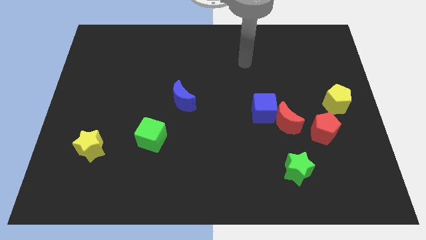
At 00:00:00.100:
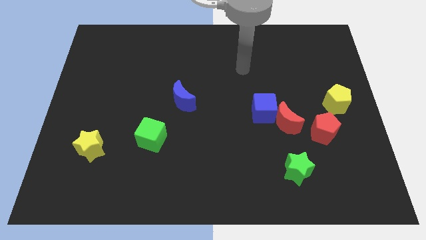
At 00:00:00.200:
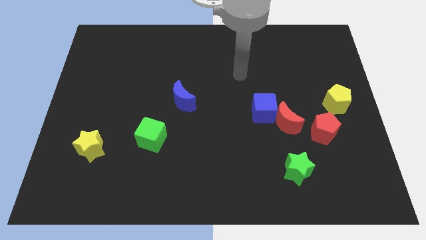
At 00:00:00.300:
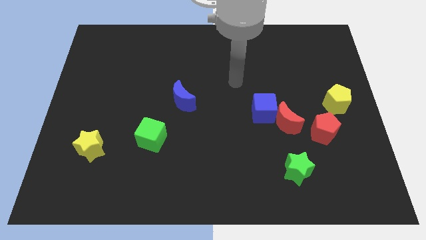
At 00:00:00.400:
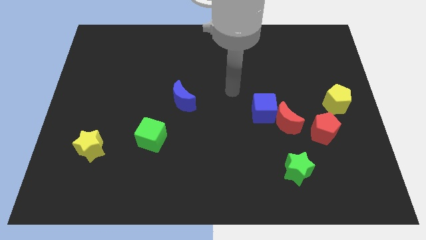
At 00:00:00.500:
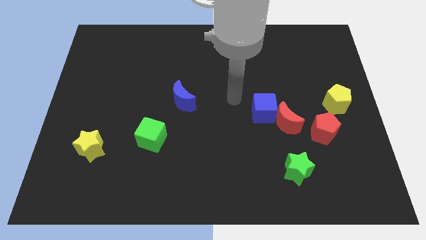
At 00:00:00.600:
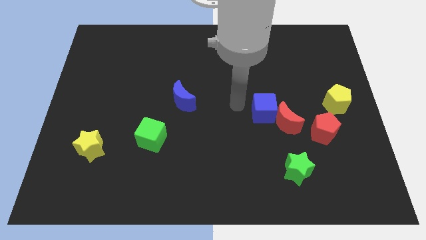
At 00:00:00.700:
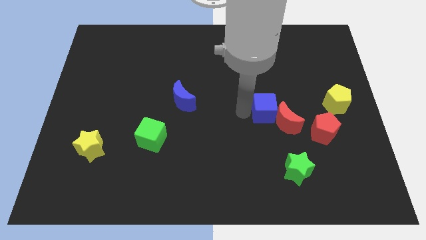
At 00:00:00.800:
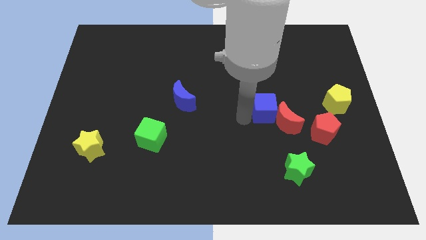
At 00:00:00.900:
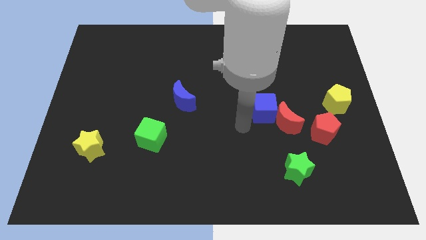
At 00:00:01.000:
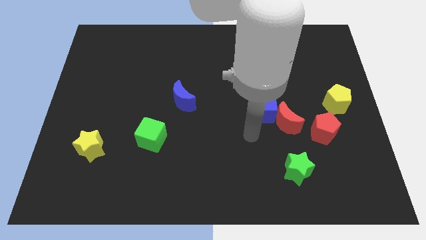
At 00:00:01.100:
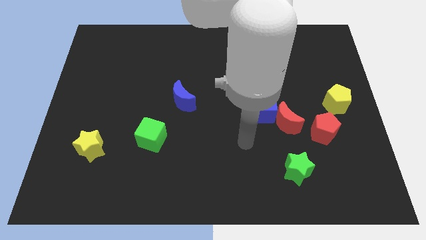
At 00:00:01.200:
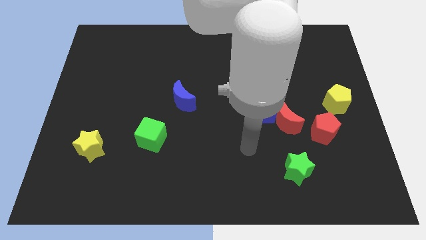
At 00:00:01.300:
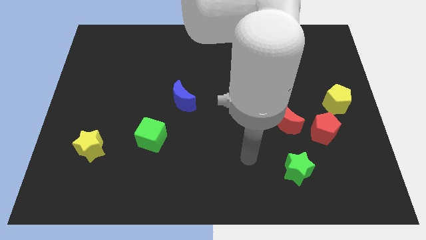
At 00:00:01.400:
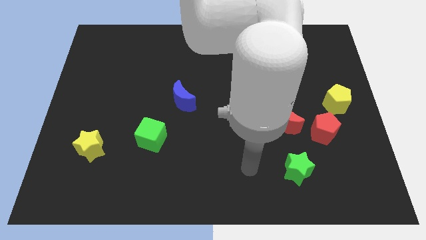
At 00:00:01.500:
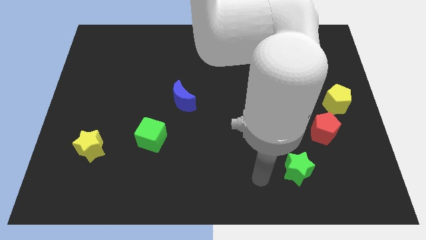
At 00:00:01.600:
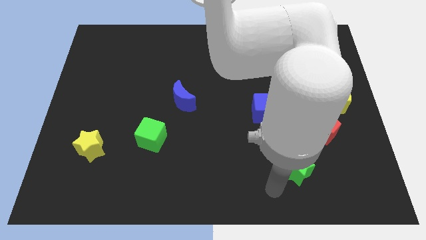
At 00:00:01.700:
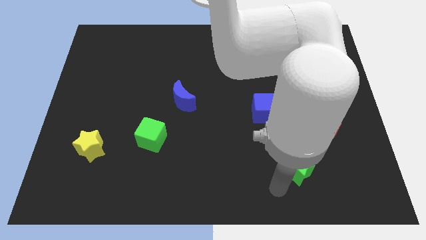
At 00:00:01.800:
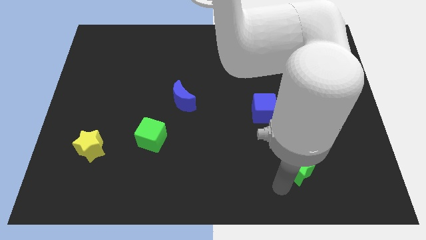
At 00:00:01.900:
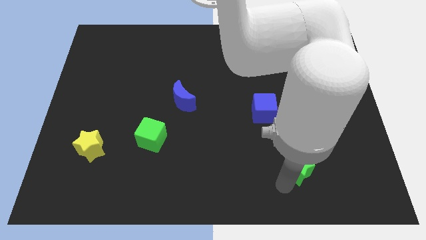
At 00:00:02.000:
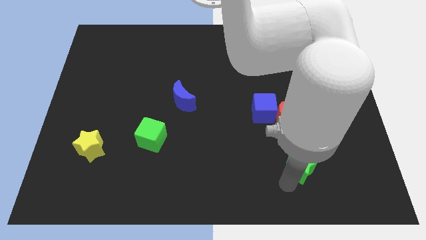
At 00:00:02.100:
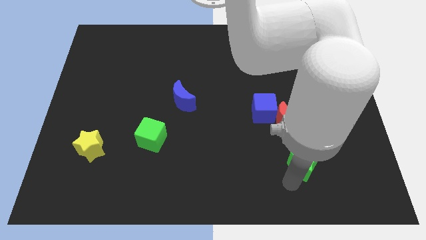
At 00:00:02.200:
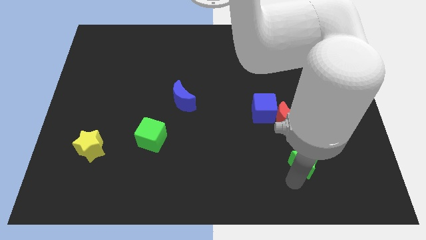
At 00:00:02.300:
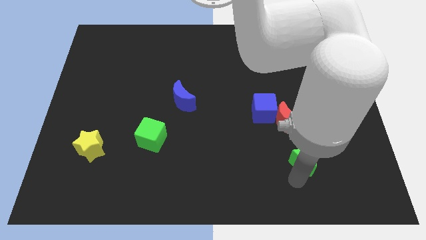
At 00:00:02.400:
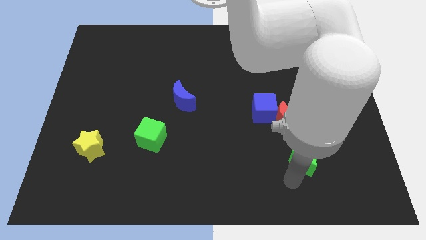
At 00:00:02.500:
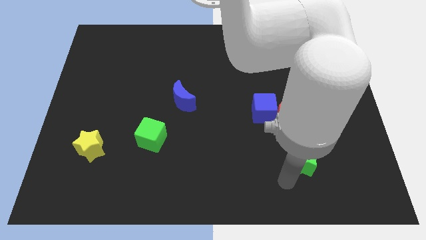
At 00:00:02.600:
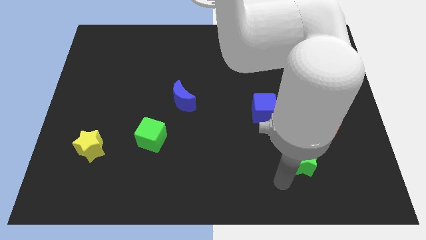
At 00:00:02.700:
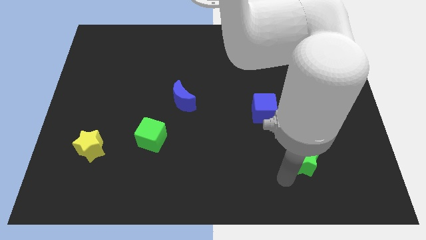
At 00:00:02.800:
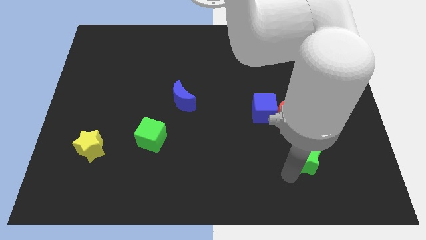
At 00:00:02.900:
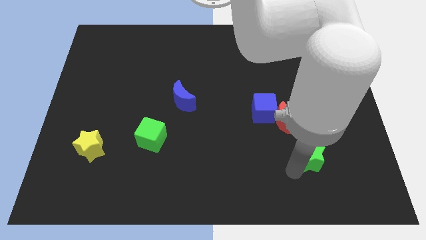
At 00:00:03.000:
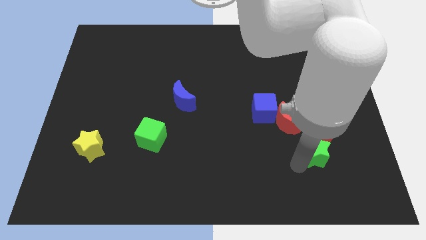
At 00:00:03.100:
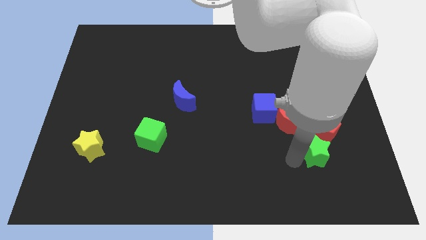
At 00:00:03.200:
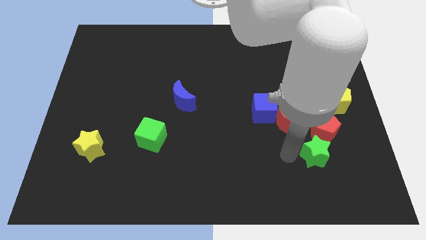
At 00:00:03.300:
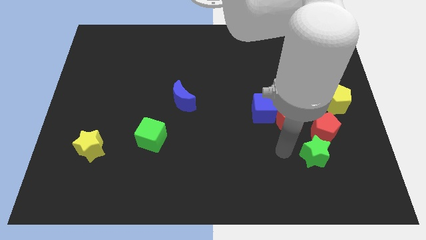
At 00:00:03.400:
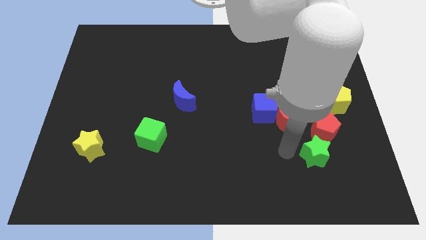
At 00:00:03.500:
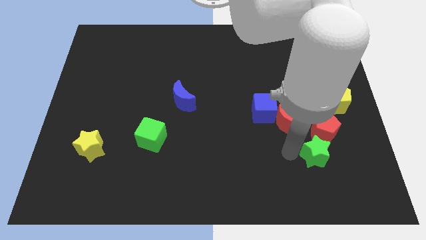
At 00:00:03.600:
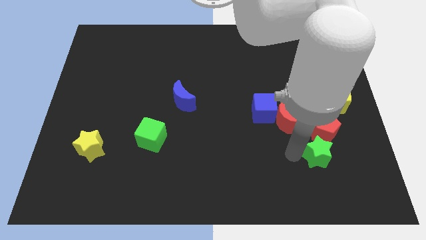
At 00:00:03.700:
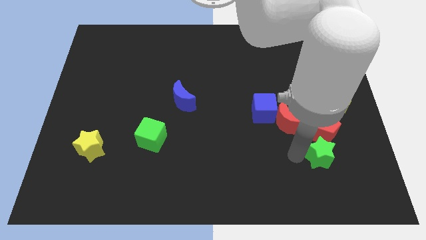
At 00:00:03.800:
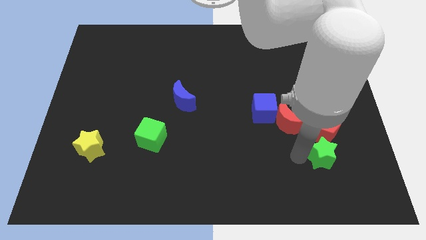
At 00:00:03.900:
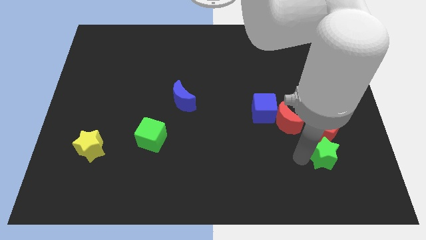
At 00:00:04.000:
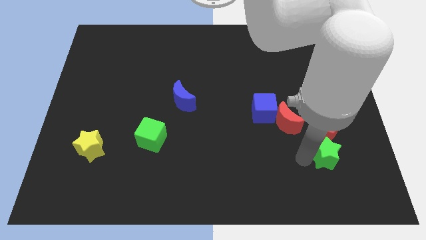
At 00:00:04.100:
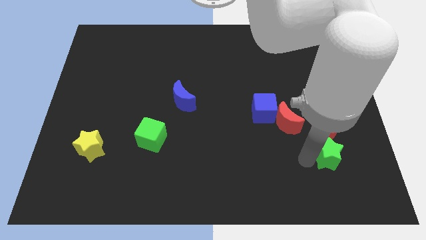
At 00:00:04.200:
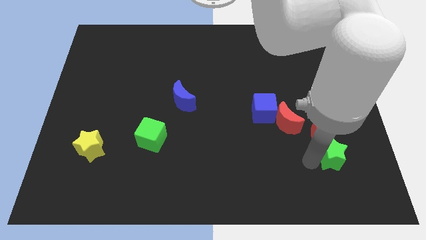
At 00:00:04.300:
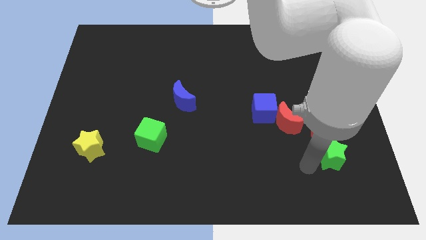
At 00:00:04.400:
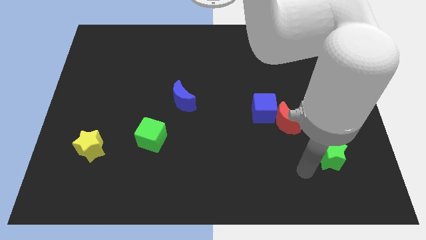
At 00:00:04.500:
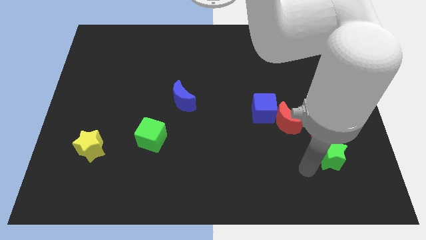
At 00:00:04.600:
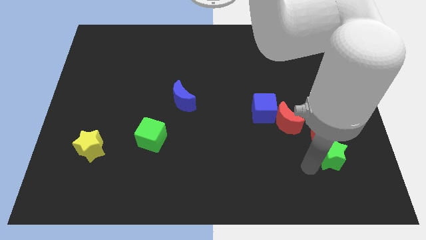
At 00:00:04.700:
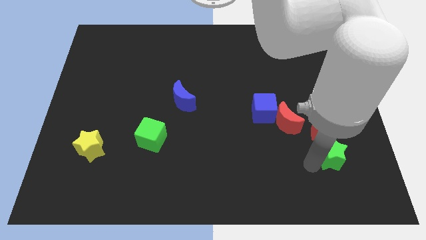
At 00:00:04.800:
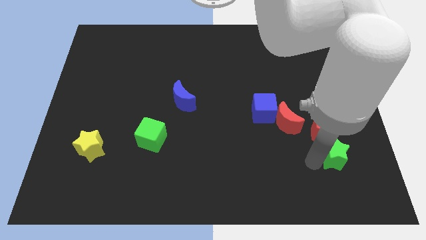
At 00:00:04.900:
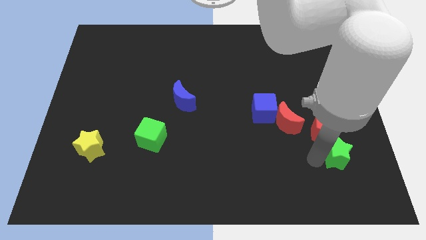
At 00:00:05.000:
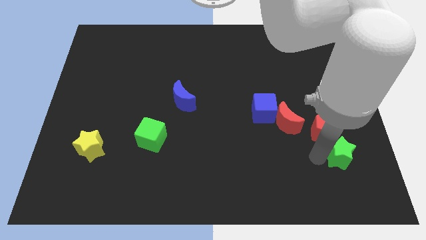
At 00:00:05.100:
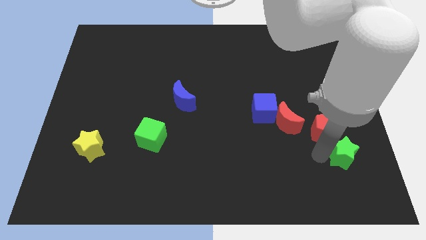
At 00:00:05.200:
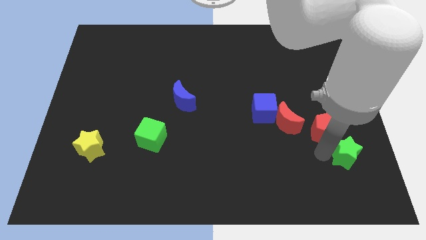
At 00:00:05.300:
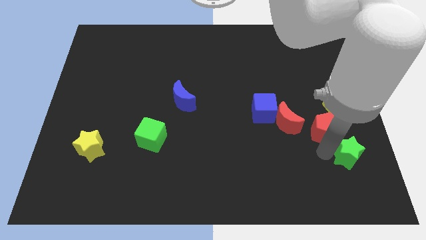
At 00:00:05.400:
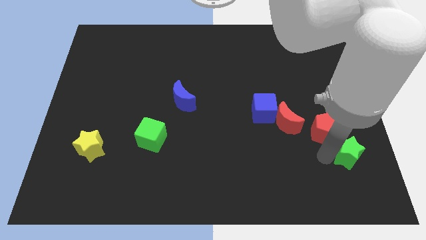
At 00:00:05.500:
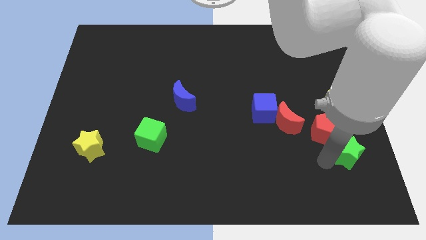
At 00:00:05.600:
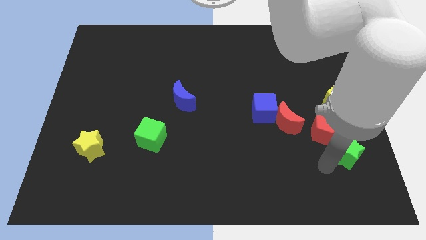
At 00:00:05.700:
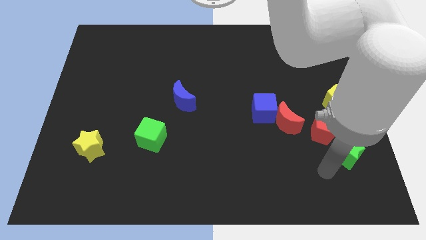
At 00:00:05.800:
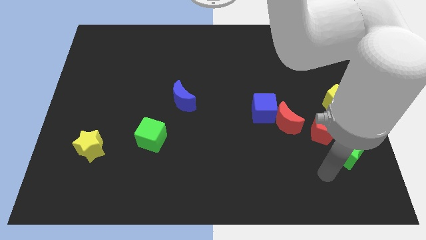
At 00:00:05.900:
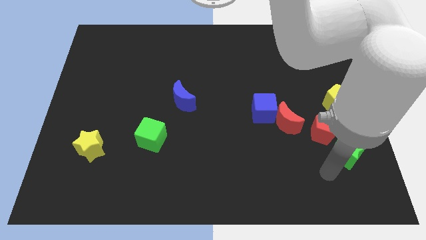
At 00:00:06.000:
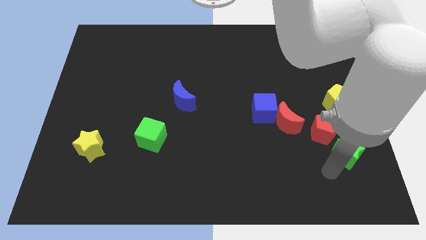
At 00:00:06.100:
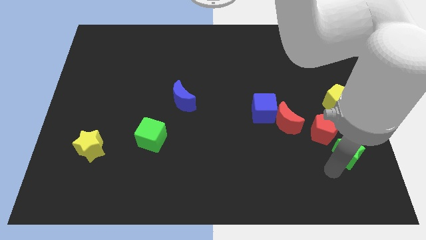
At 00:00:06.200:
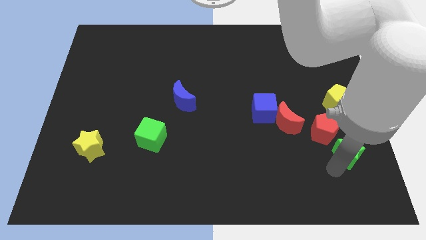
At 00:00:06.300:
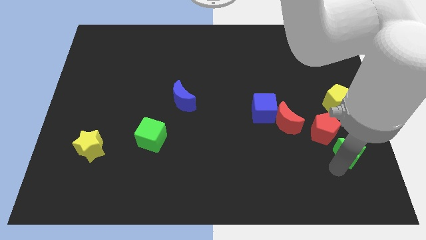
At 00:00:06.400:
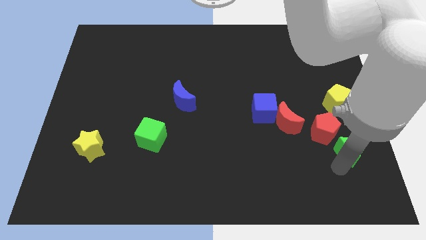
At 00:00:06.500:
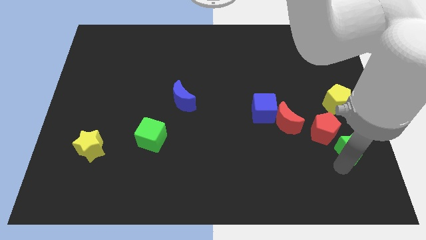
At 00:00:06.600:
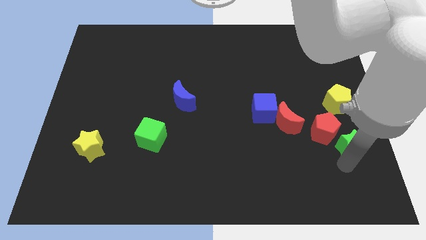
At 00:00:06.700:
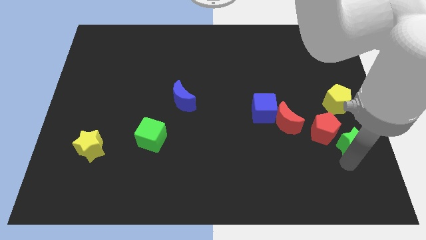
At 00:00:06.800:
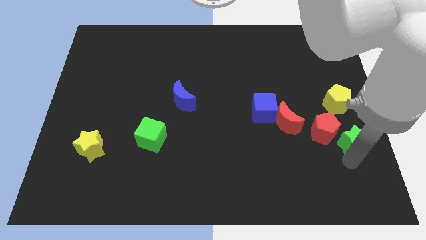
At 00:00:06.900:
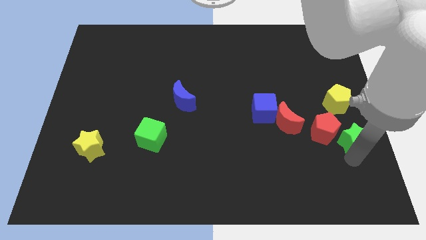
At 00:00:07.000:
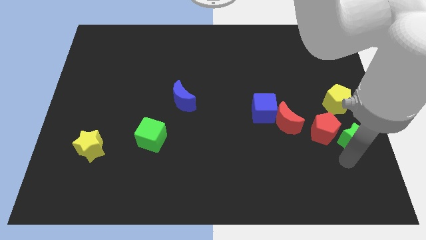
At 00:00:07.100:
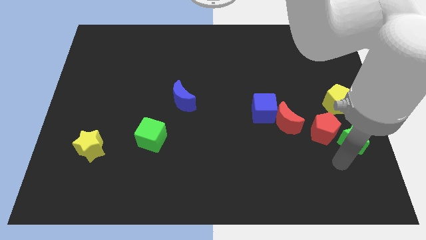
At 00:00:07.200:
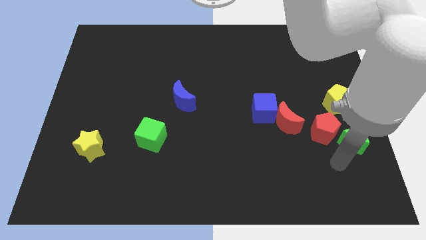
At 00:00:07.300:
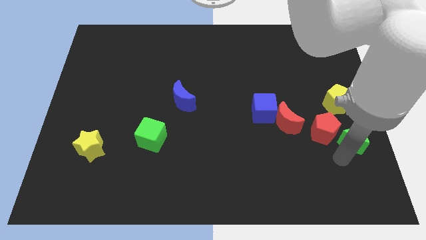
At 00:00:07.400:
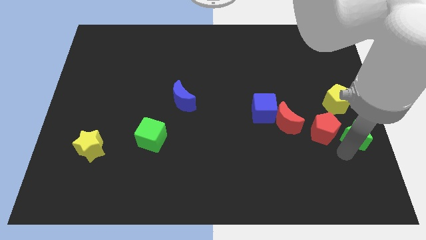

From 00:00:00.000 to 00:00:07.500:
push the green star to the right side
